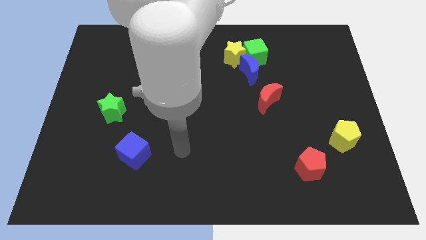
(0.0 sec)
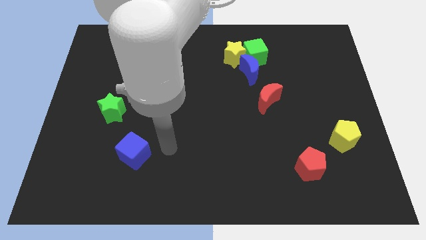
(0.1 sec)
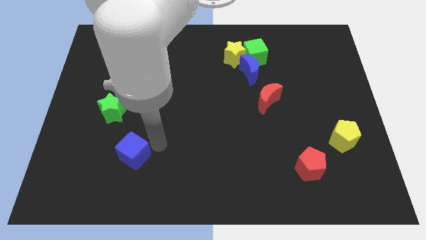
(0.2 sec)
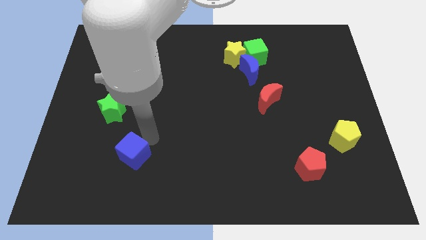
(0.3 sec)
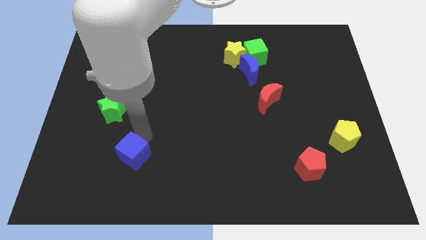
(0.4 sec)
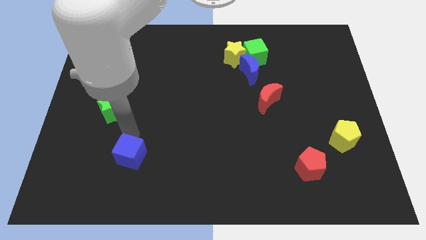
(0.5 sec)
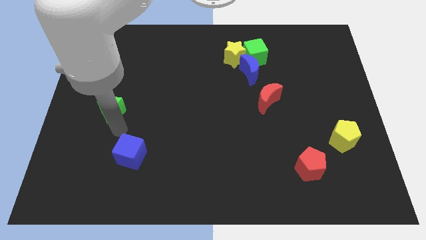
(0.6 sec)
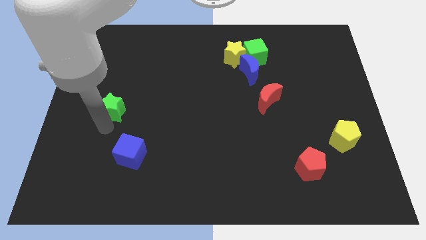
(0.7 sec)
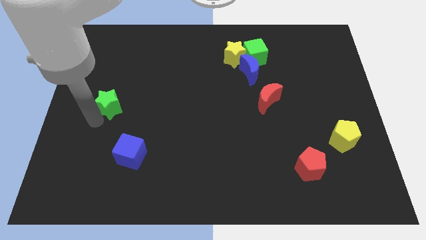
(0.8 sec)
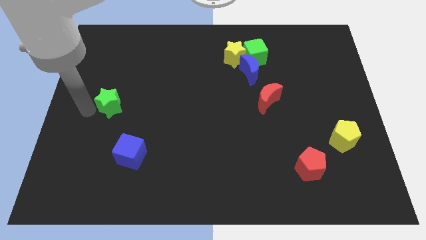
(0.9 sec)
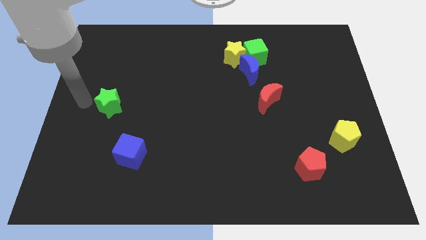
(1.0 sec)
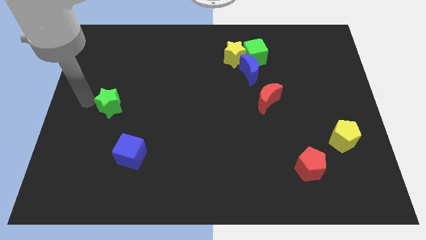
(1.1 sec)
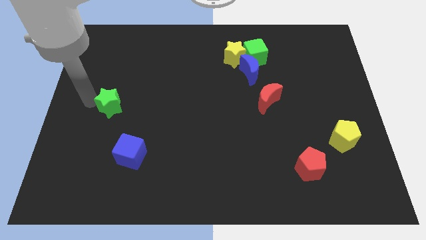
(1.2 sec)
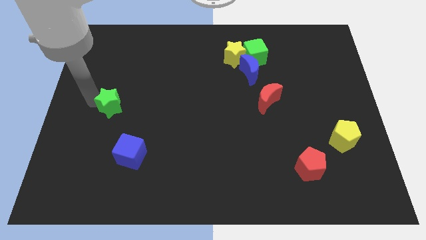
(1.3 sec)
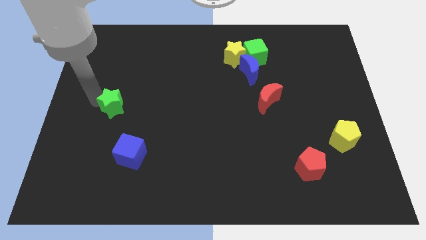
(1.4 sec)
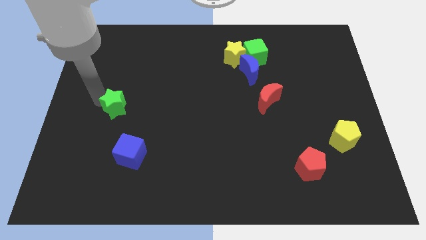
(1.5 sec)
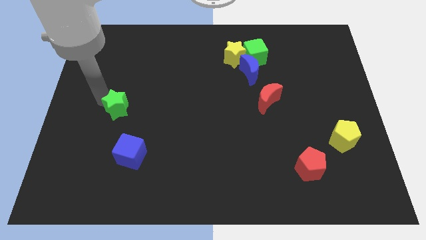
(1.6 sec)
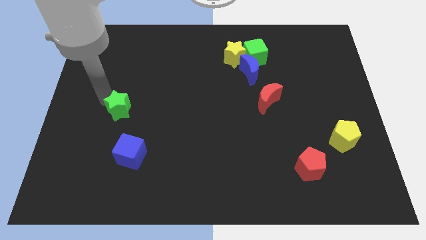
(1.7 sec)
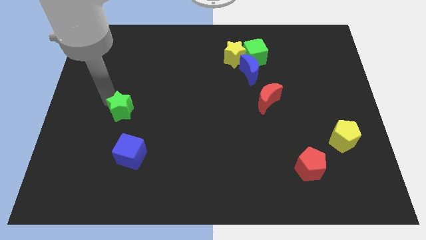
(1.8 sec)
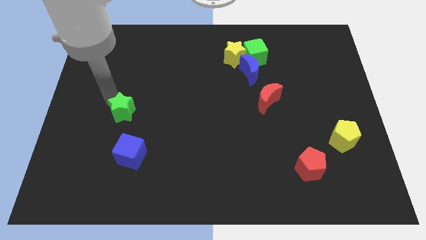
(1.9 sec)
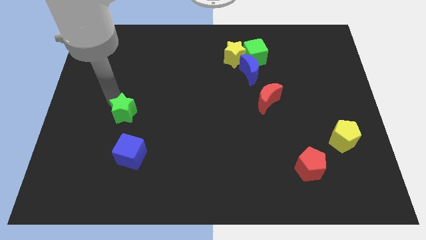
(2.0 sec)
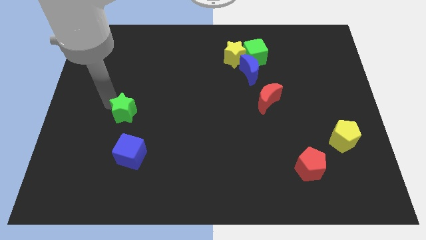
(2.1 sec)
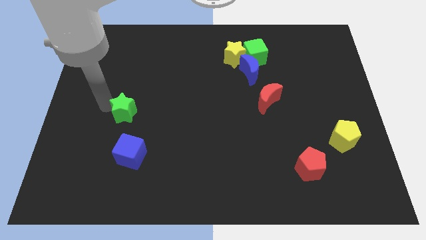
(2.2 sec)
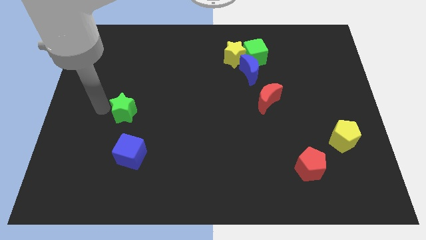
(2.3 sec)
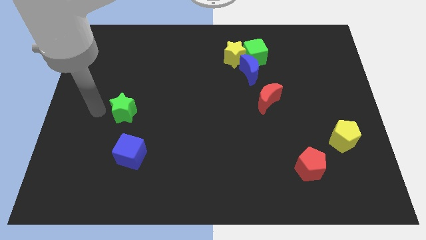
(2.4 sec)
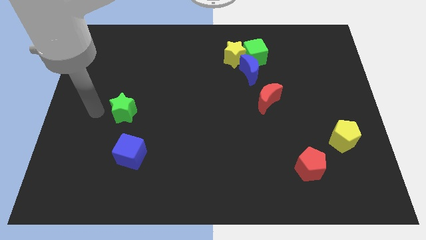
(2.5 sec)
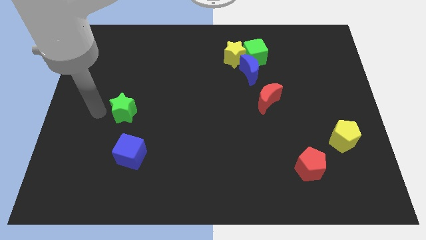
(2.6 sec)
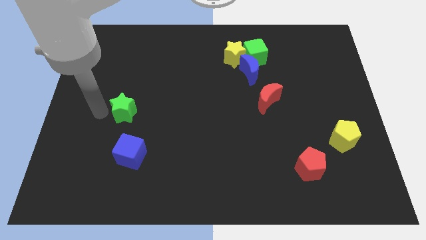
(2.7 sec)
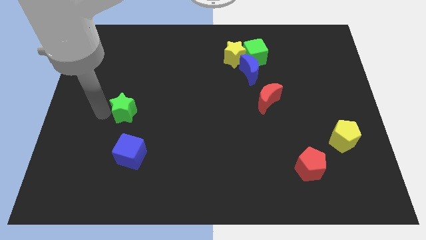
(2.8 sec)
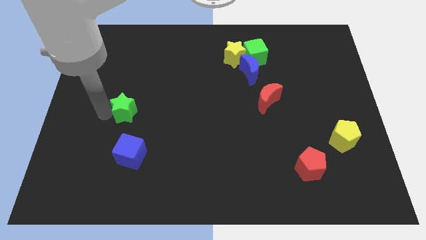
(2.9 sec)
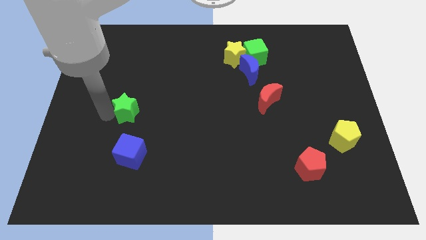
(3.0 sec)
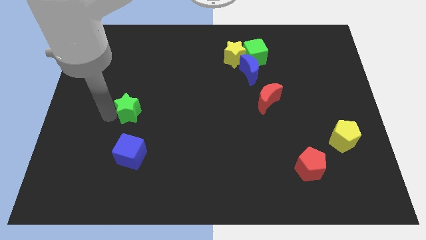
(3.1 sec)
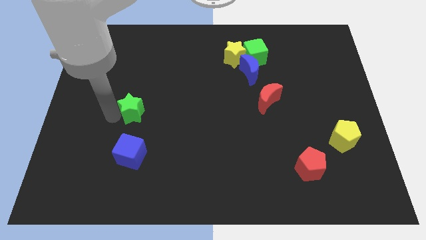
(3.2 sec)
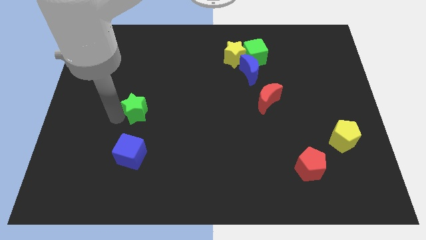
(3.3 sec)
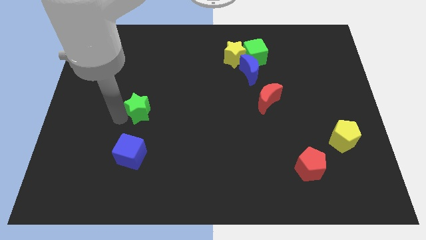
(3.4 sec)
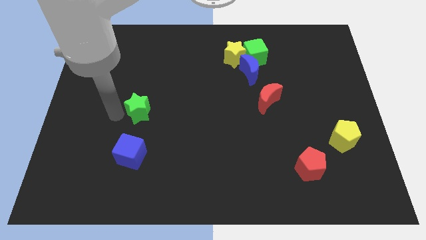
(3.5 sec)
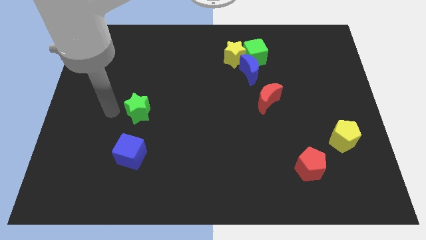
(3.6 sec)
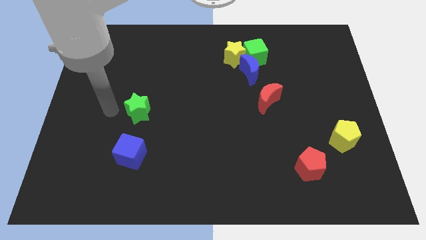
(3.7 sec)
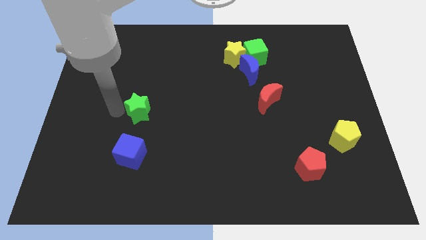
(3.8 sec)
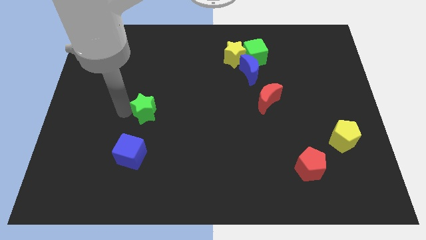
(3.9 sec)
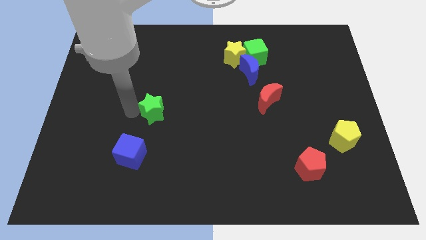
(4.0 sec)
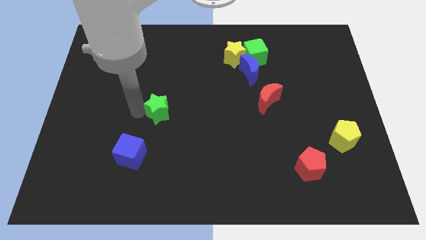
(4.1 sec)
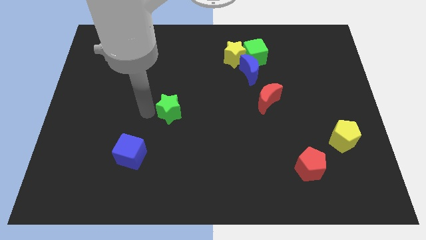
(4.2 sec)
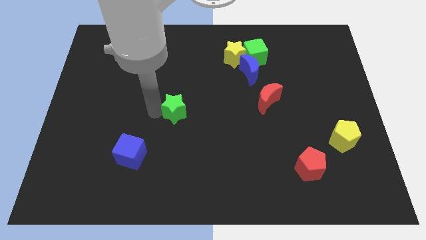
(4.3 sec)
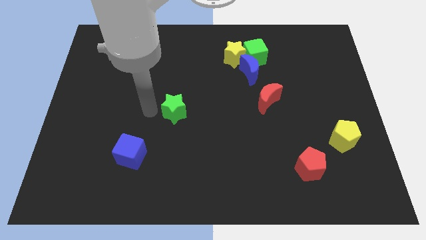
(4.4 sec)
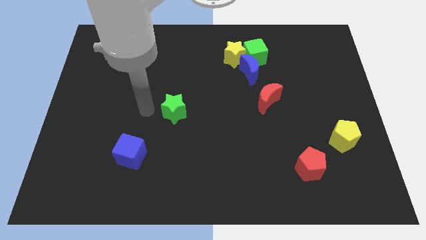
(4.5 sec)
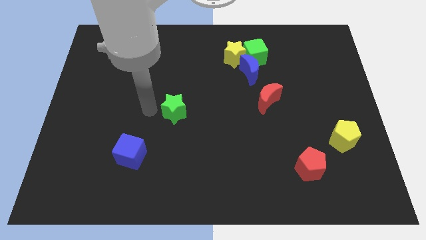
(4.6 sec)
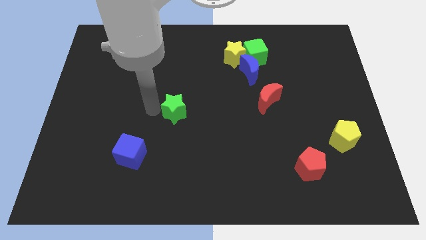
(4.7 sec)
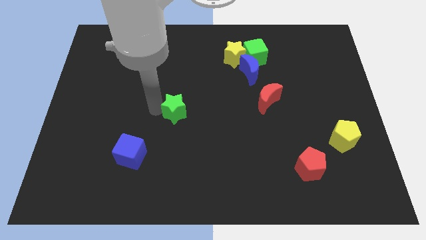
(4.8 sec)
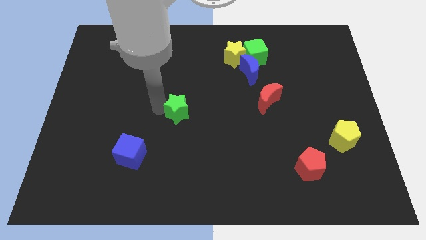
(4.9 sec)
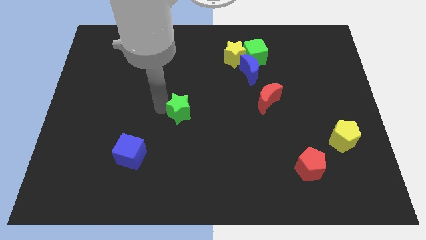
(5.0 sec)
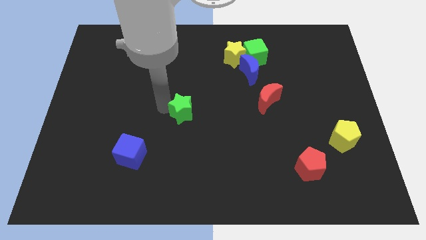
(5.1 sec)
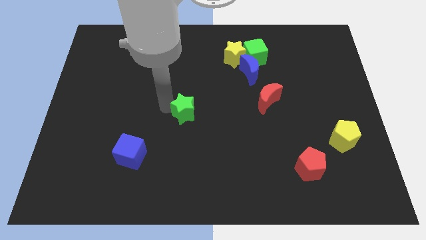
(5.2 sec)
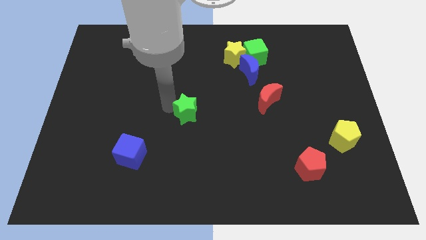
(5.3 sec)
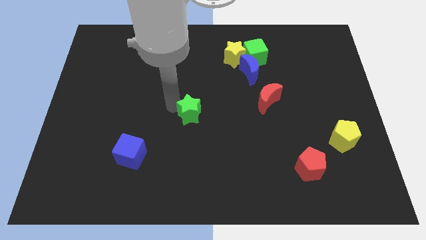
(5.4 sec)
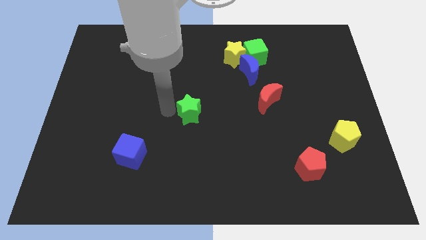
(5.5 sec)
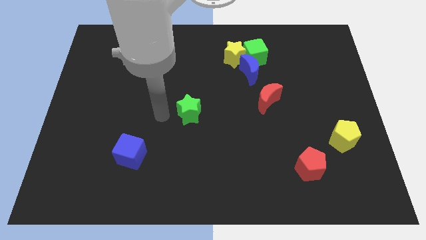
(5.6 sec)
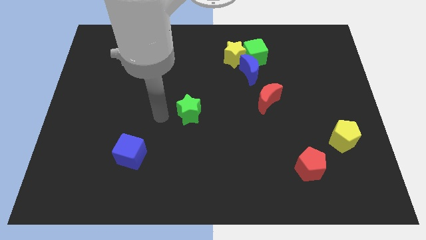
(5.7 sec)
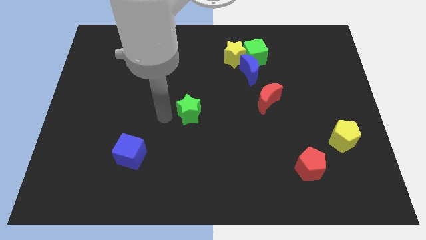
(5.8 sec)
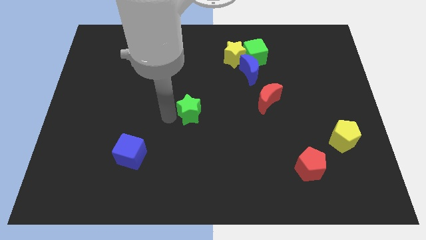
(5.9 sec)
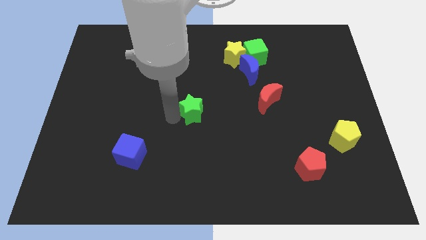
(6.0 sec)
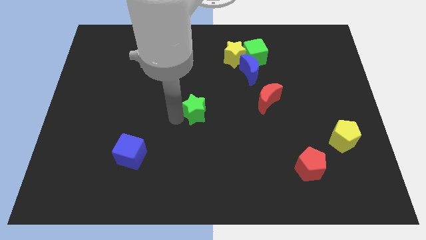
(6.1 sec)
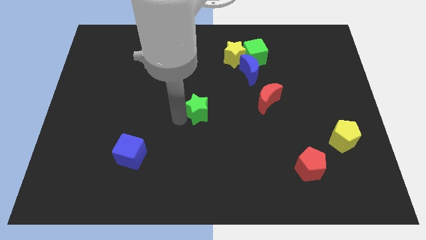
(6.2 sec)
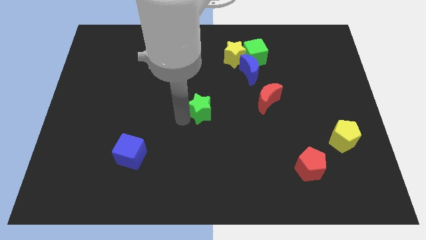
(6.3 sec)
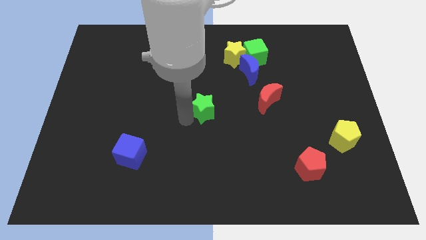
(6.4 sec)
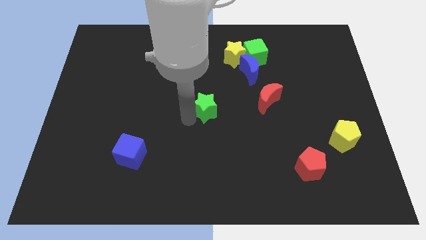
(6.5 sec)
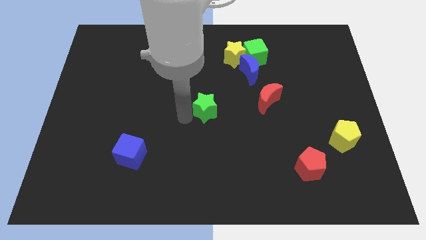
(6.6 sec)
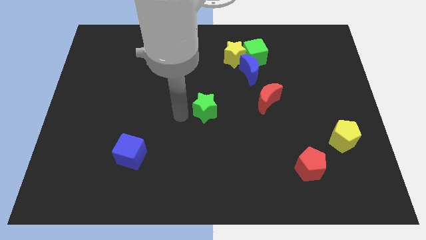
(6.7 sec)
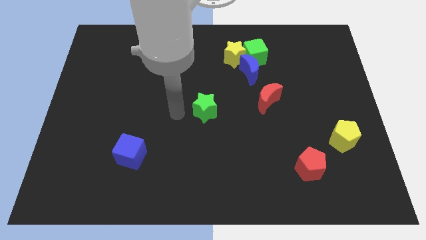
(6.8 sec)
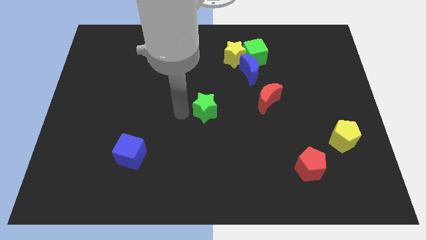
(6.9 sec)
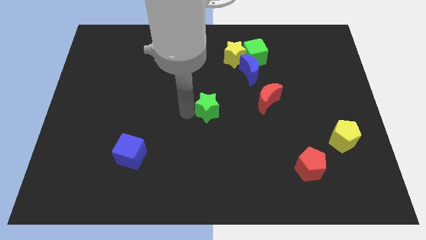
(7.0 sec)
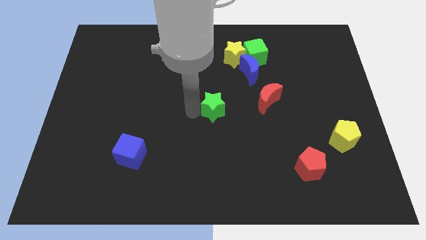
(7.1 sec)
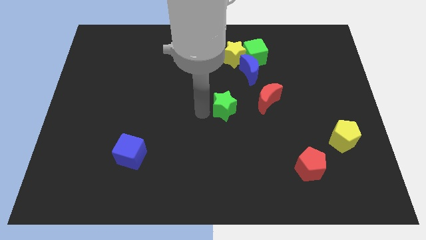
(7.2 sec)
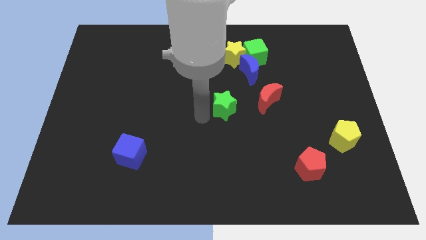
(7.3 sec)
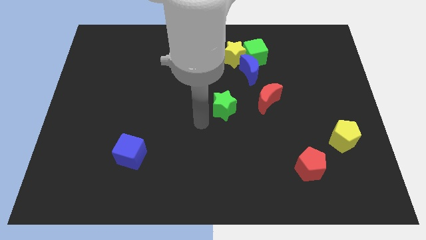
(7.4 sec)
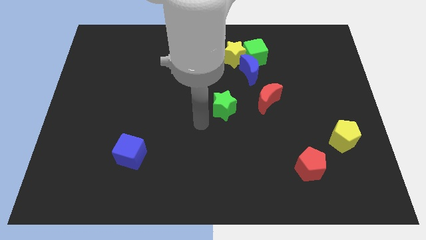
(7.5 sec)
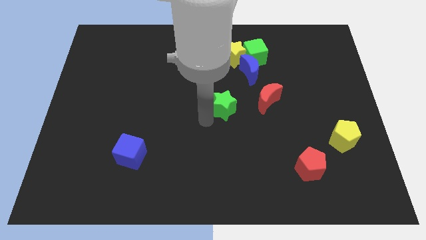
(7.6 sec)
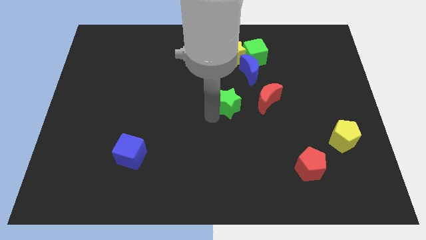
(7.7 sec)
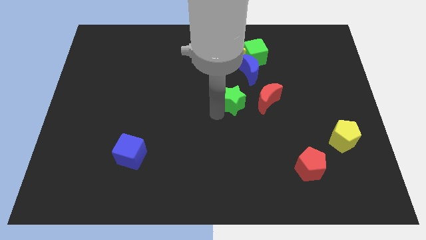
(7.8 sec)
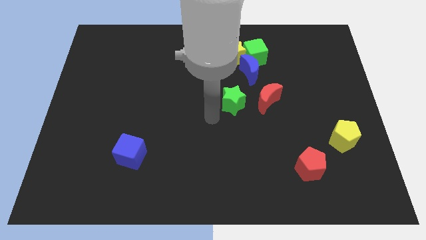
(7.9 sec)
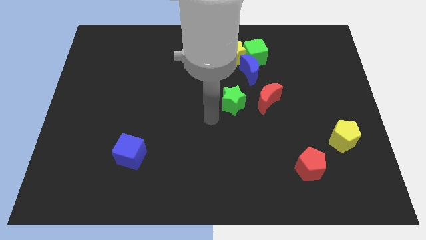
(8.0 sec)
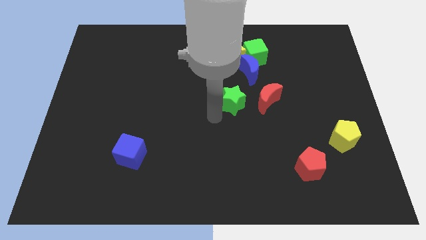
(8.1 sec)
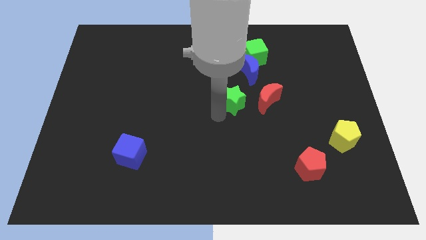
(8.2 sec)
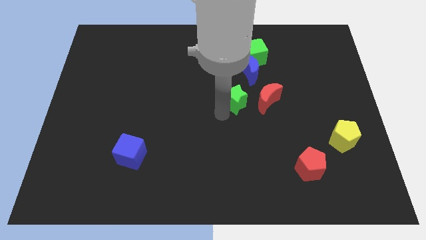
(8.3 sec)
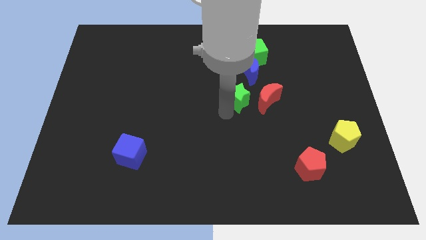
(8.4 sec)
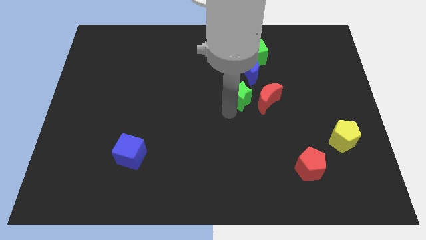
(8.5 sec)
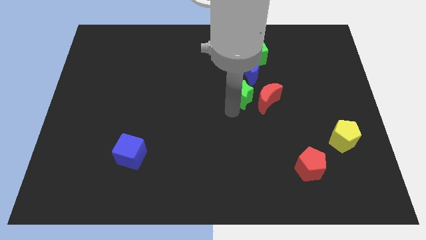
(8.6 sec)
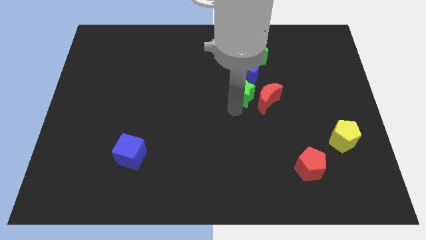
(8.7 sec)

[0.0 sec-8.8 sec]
put the green star to the bottom side of the green cube
